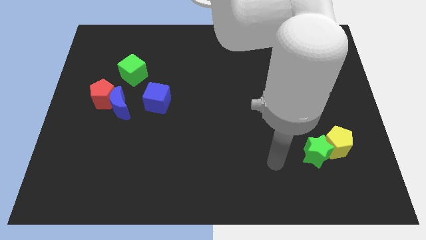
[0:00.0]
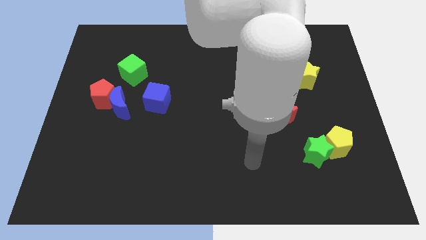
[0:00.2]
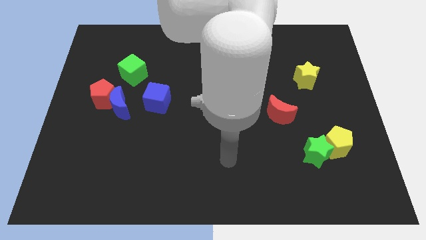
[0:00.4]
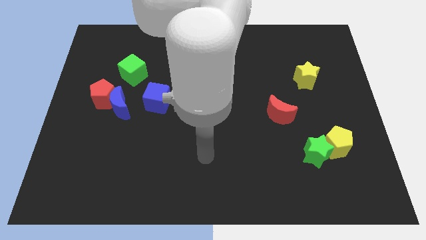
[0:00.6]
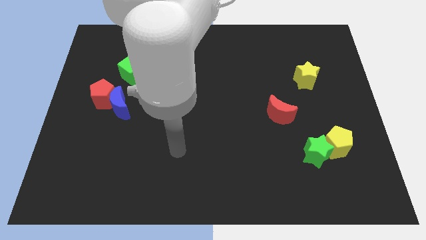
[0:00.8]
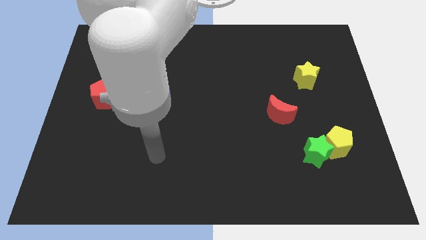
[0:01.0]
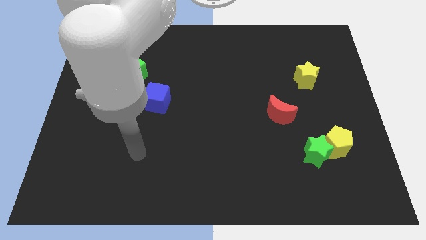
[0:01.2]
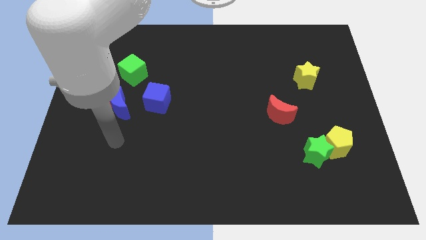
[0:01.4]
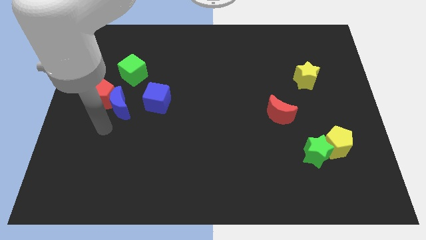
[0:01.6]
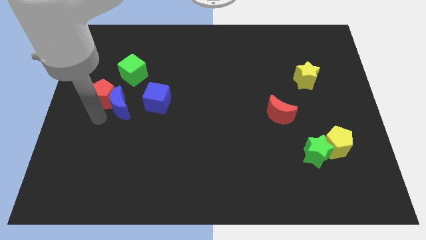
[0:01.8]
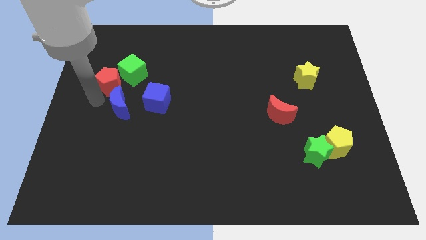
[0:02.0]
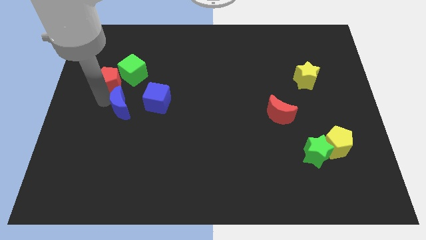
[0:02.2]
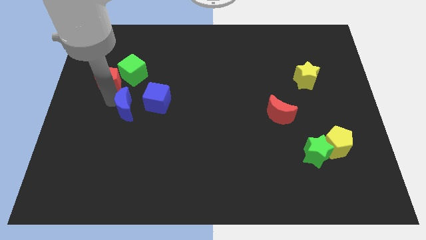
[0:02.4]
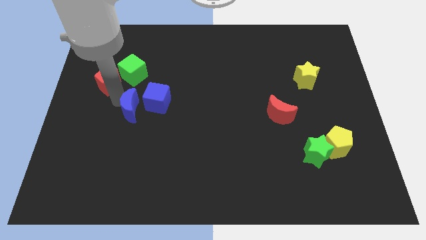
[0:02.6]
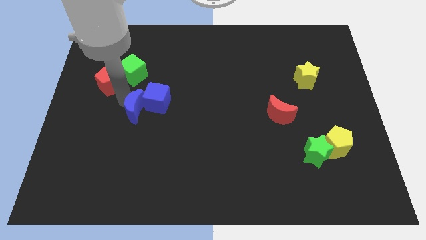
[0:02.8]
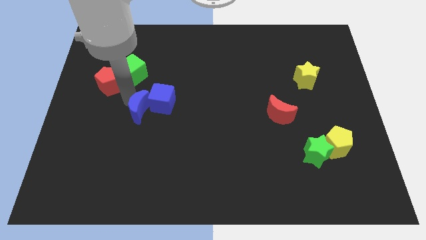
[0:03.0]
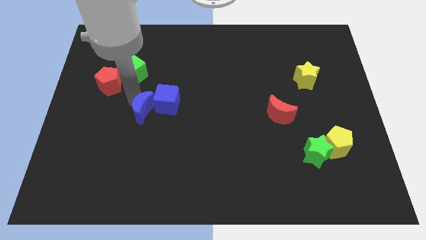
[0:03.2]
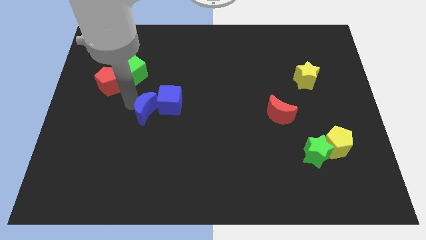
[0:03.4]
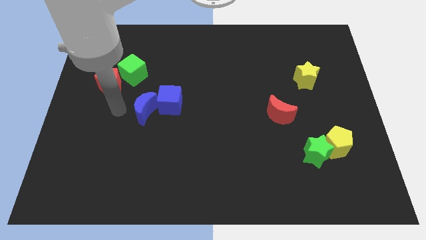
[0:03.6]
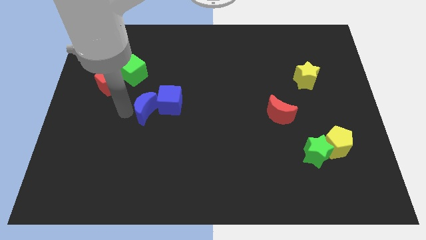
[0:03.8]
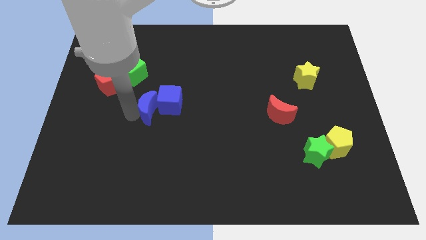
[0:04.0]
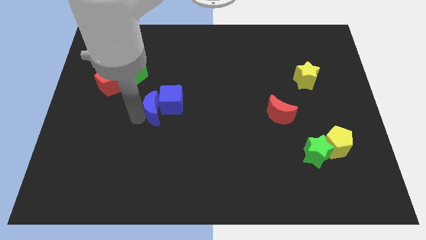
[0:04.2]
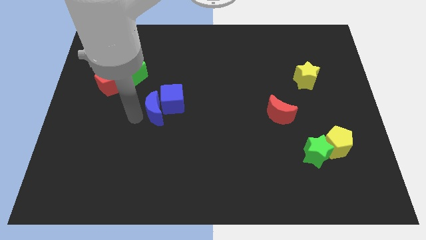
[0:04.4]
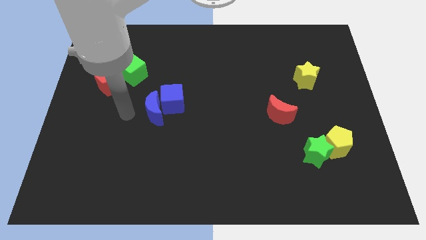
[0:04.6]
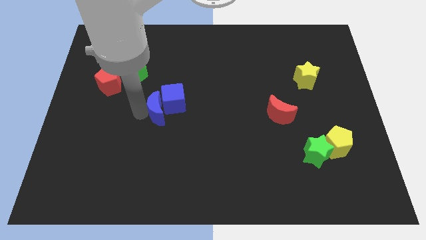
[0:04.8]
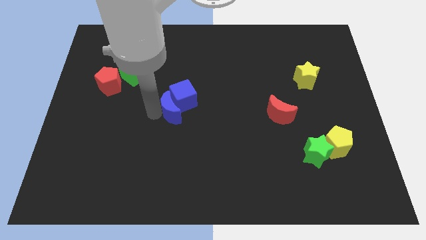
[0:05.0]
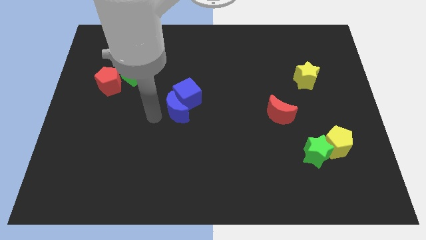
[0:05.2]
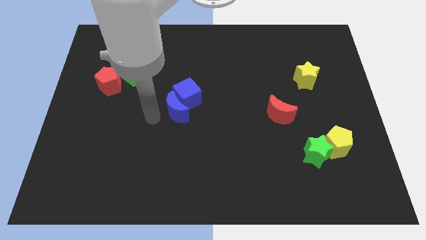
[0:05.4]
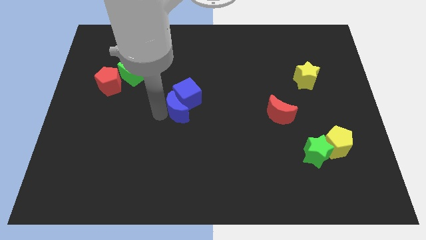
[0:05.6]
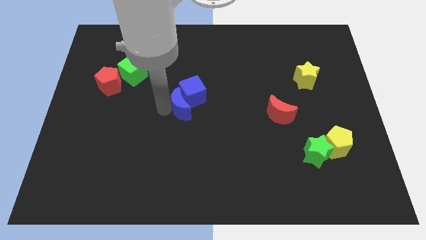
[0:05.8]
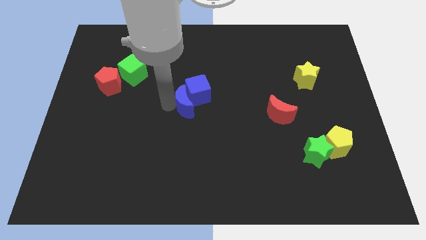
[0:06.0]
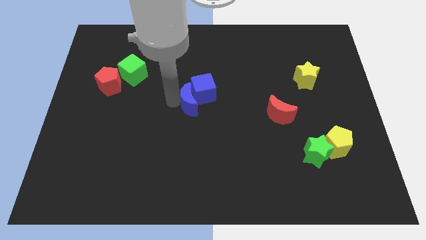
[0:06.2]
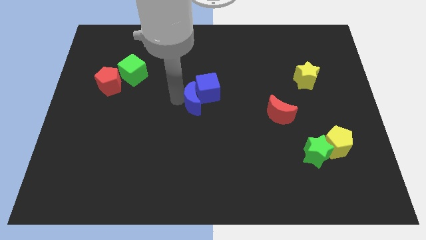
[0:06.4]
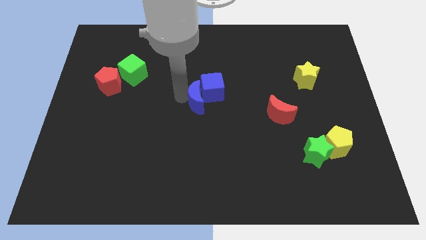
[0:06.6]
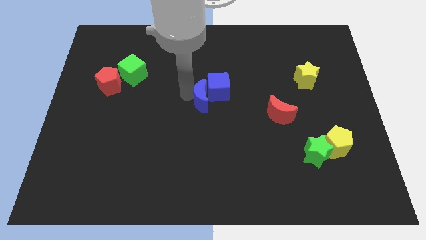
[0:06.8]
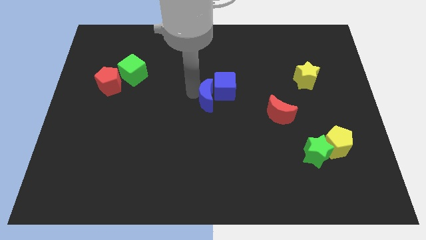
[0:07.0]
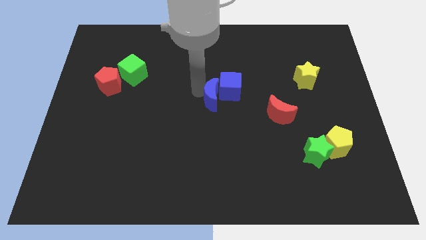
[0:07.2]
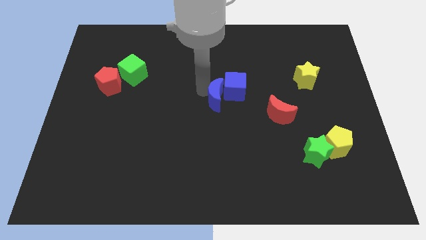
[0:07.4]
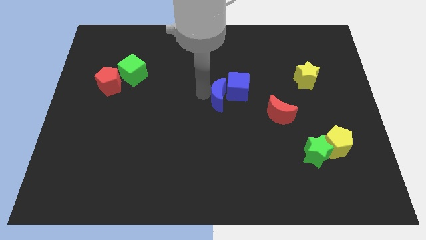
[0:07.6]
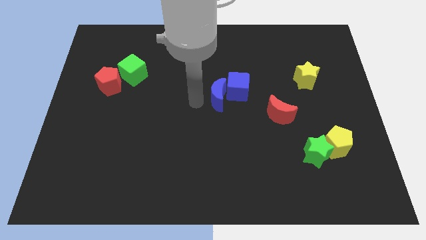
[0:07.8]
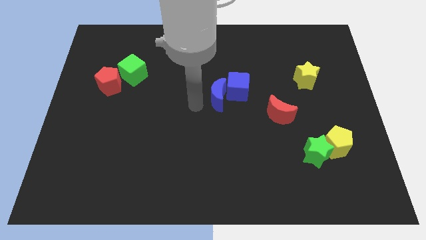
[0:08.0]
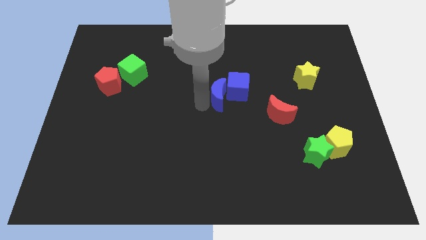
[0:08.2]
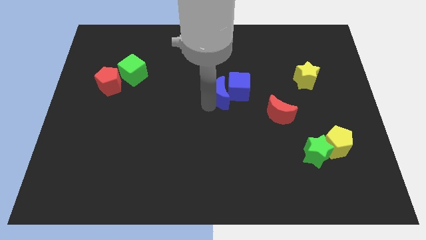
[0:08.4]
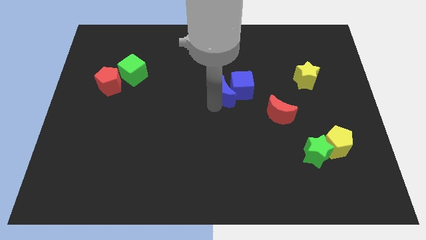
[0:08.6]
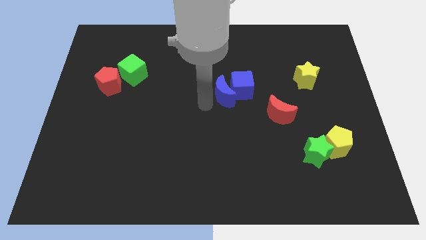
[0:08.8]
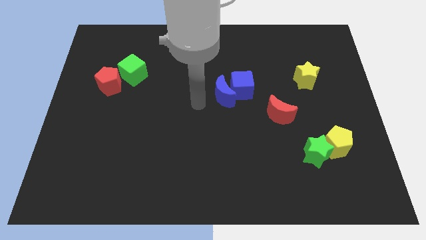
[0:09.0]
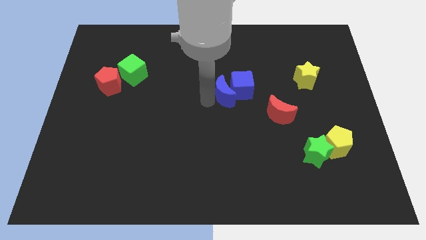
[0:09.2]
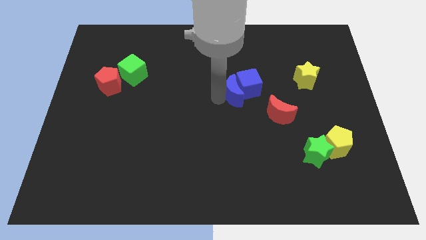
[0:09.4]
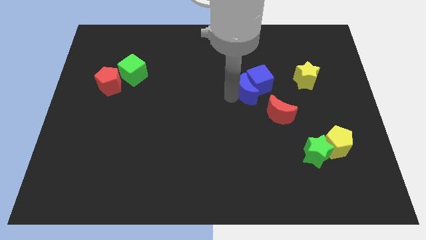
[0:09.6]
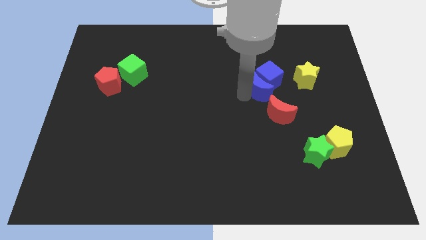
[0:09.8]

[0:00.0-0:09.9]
put the blue moon to the top of the red moon

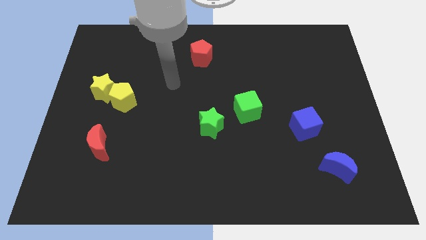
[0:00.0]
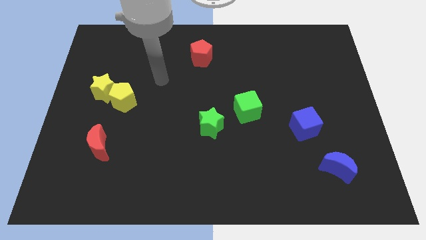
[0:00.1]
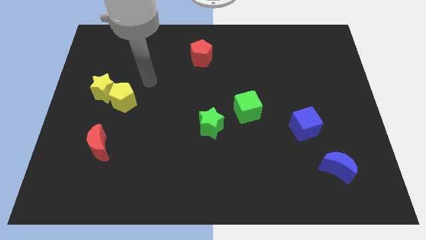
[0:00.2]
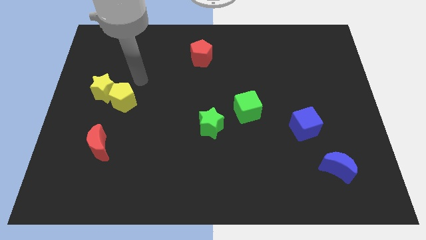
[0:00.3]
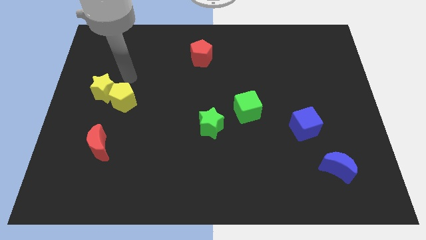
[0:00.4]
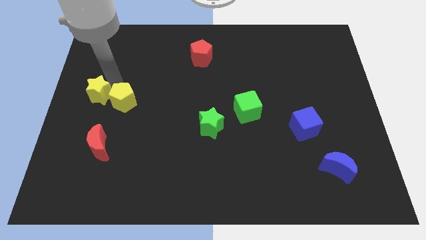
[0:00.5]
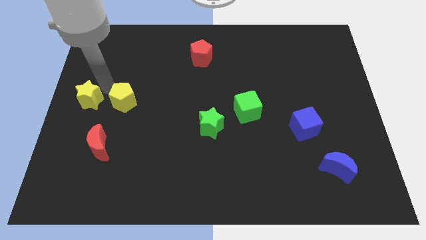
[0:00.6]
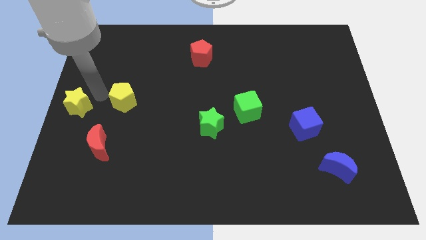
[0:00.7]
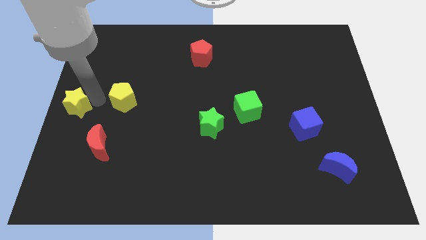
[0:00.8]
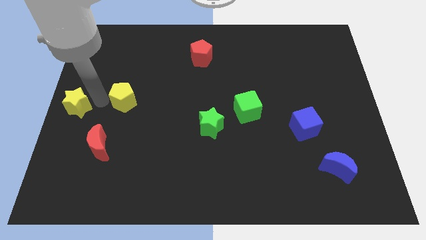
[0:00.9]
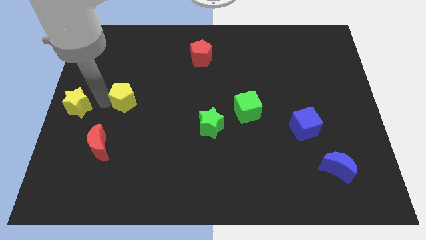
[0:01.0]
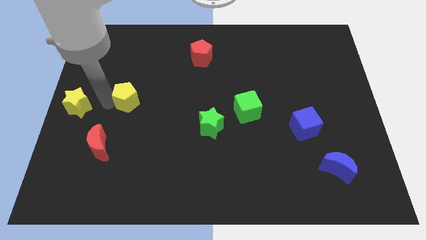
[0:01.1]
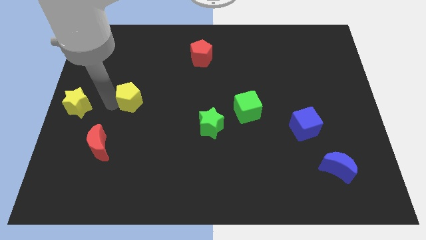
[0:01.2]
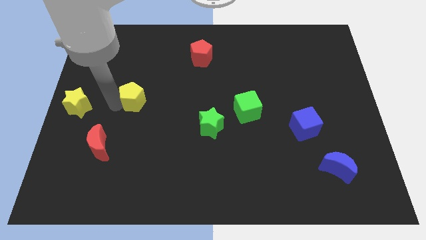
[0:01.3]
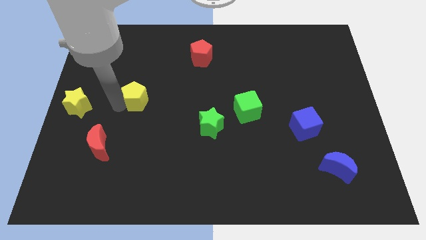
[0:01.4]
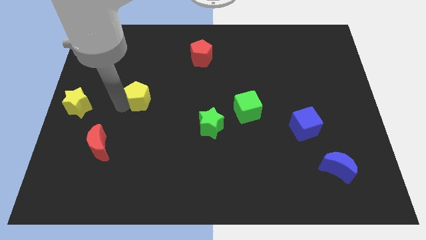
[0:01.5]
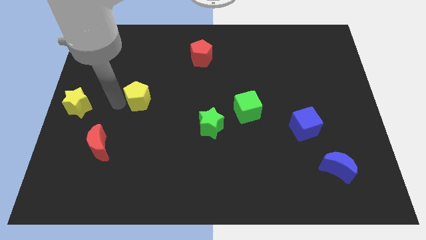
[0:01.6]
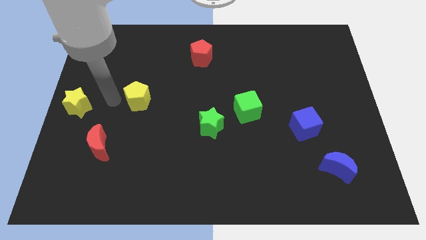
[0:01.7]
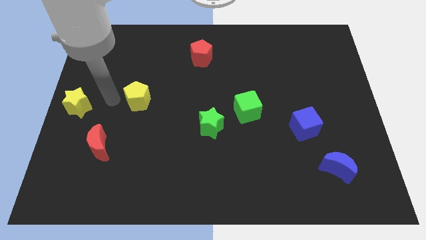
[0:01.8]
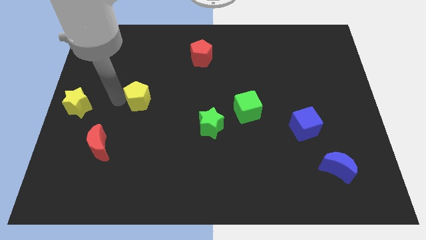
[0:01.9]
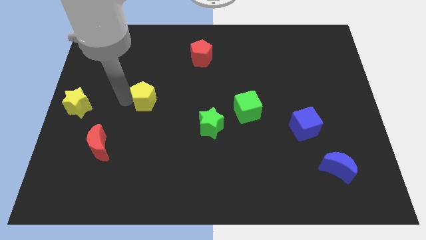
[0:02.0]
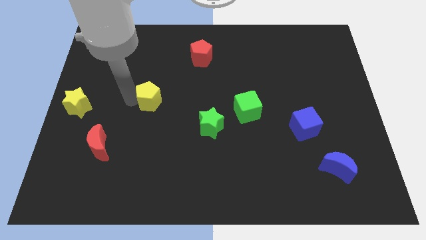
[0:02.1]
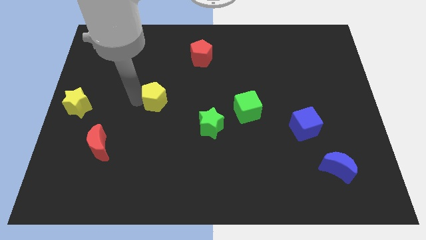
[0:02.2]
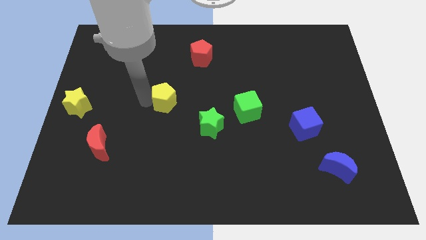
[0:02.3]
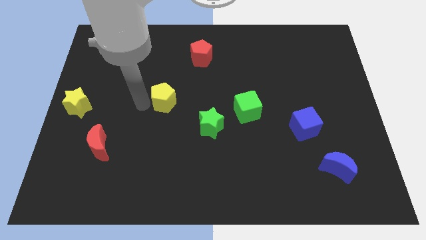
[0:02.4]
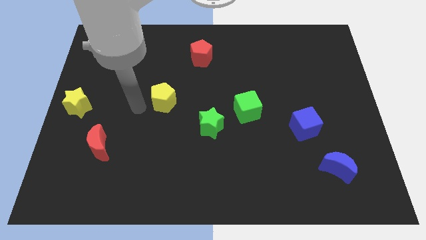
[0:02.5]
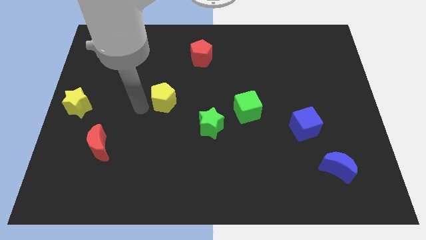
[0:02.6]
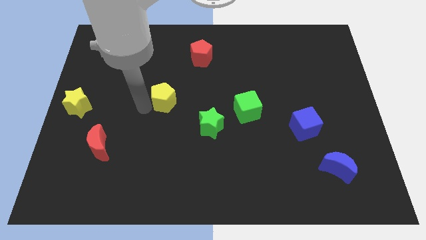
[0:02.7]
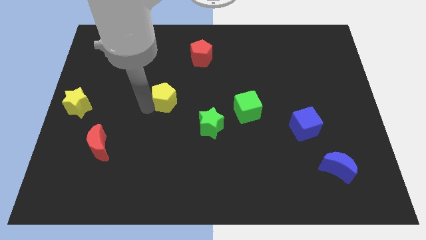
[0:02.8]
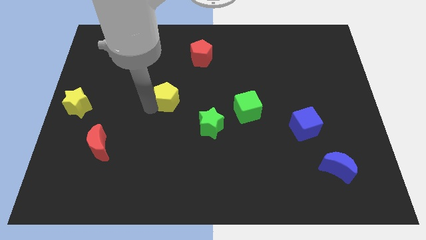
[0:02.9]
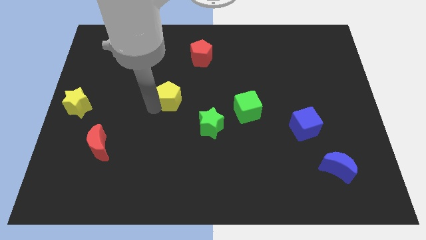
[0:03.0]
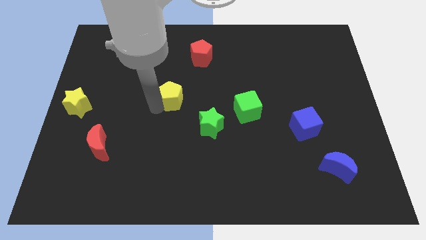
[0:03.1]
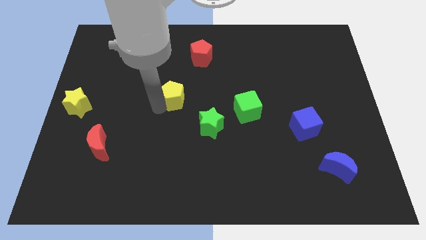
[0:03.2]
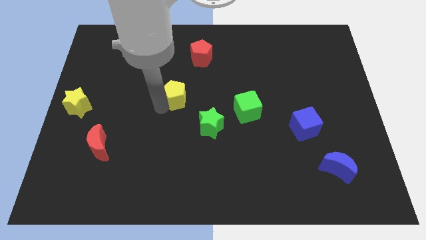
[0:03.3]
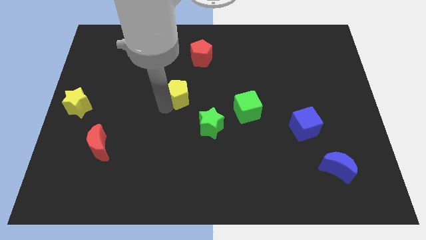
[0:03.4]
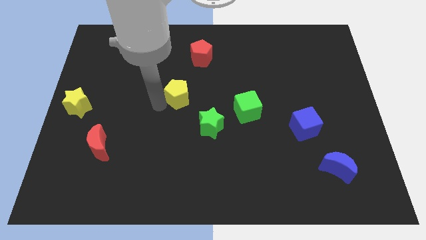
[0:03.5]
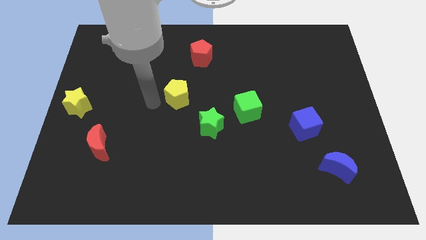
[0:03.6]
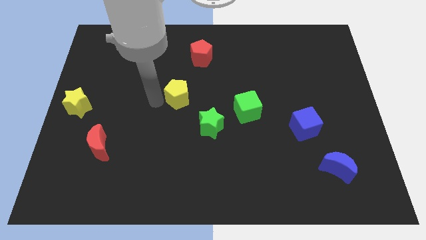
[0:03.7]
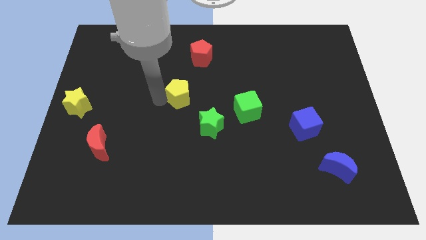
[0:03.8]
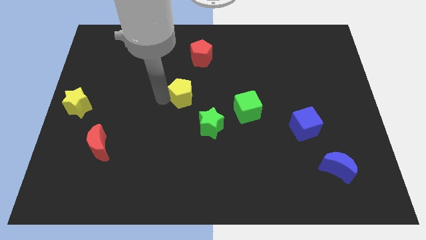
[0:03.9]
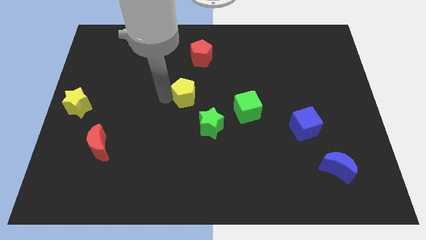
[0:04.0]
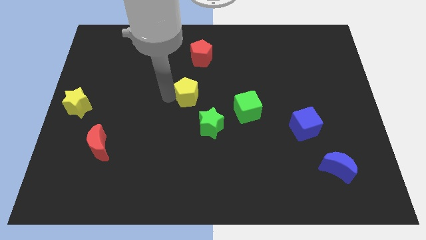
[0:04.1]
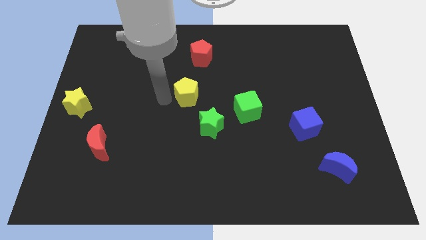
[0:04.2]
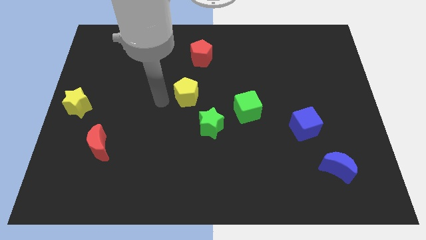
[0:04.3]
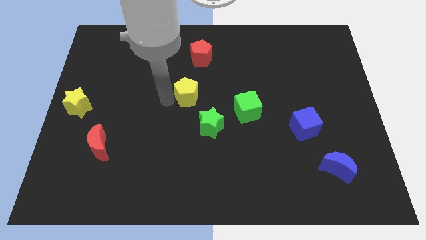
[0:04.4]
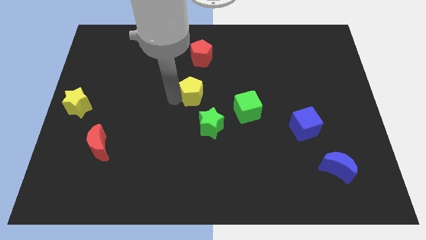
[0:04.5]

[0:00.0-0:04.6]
put the yellow pentagon to the top of the green star
